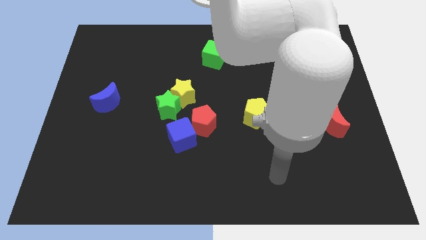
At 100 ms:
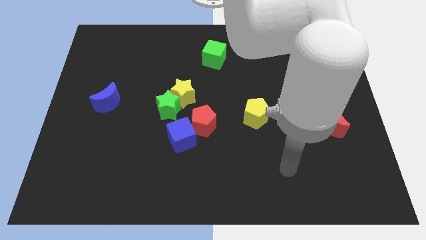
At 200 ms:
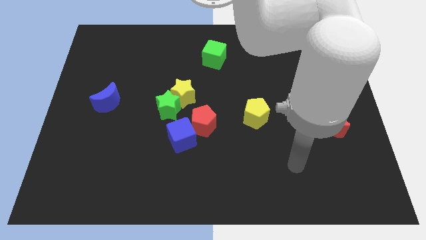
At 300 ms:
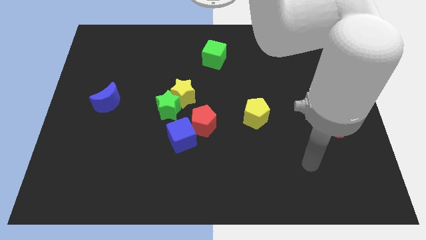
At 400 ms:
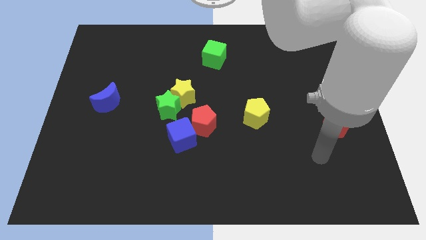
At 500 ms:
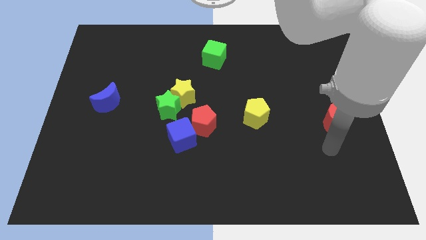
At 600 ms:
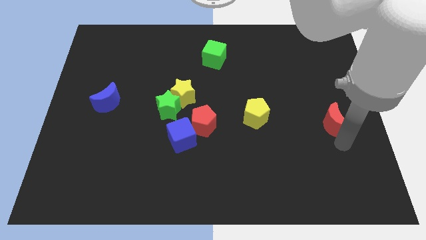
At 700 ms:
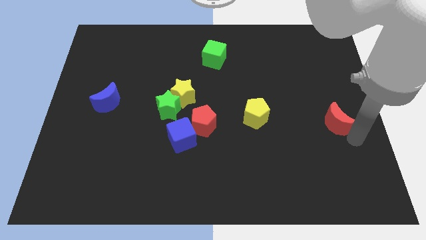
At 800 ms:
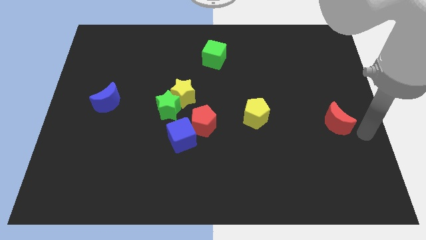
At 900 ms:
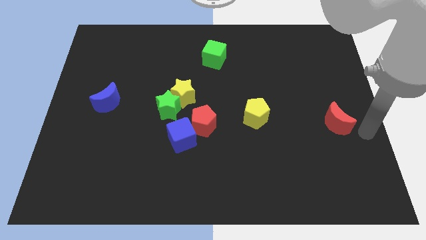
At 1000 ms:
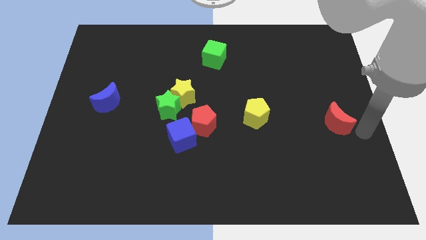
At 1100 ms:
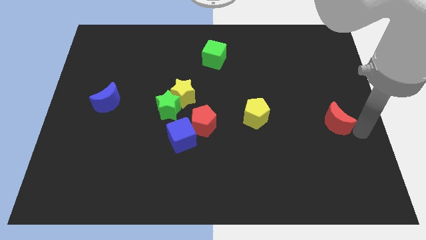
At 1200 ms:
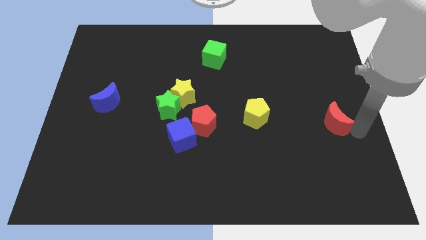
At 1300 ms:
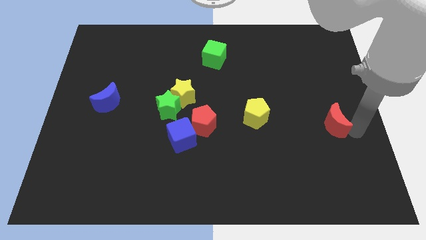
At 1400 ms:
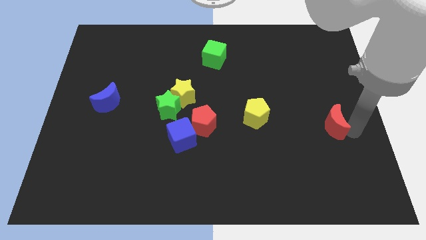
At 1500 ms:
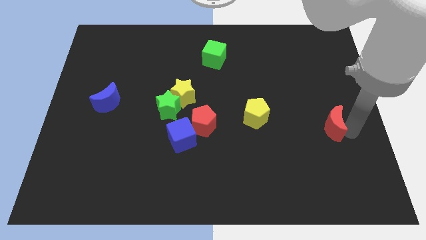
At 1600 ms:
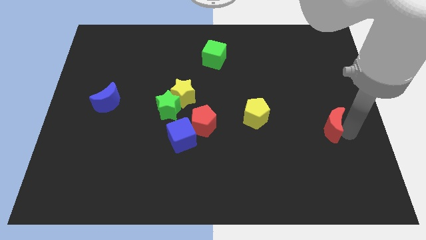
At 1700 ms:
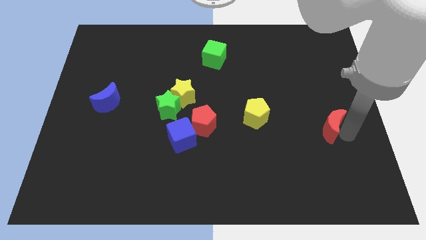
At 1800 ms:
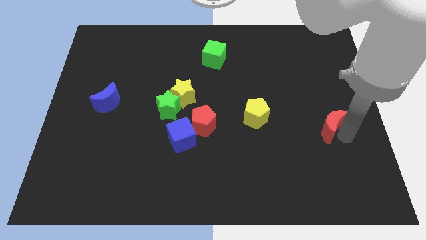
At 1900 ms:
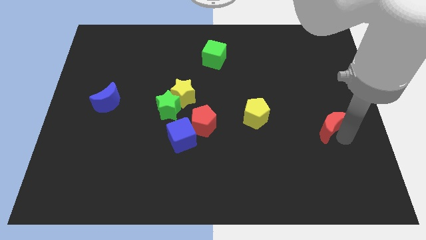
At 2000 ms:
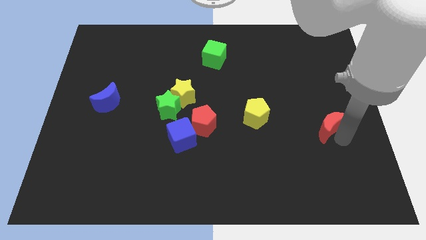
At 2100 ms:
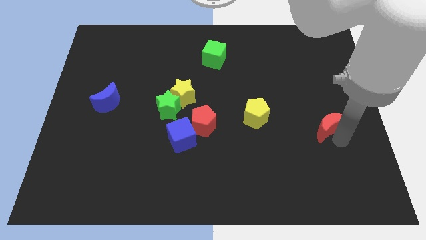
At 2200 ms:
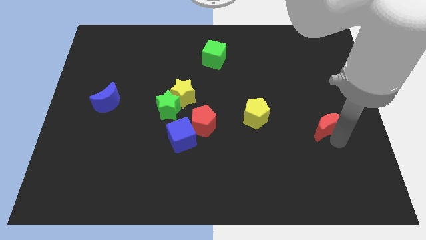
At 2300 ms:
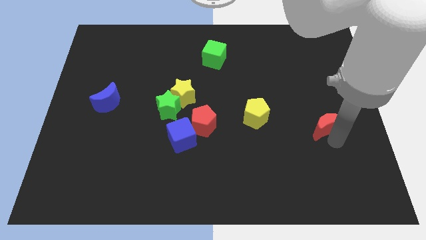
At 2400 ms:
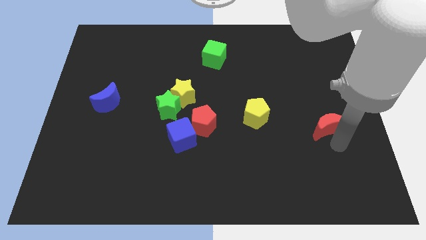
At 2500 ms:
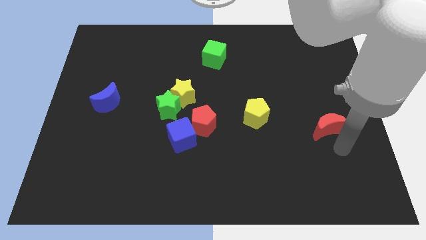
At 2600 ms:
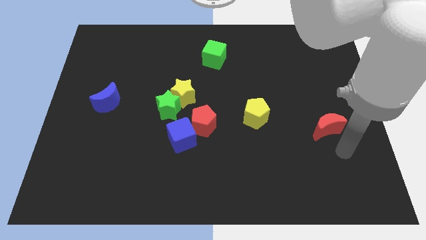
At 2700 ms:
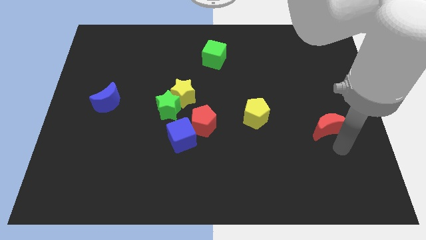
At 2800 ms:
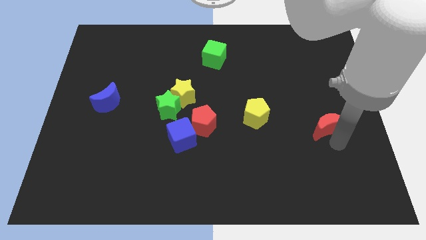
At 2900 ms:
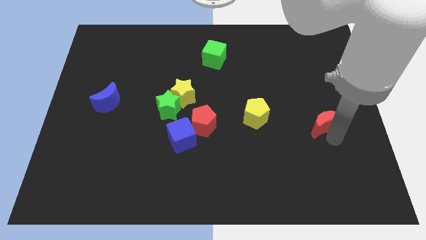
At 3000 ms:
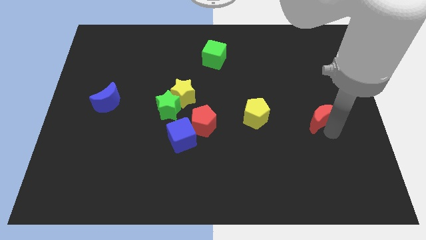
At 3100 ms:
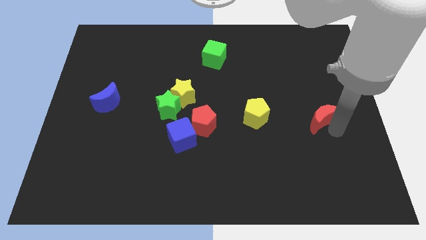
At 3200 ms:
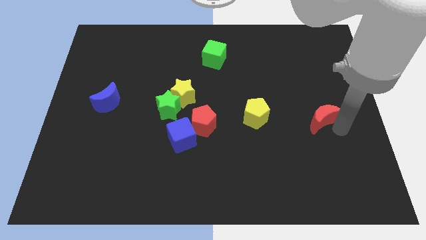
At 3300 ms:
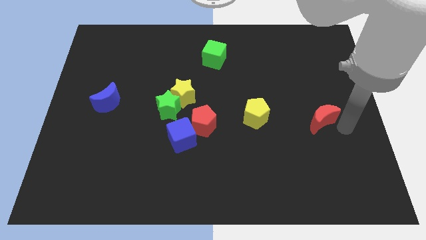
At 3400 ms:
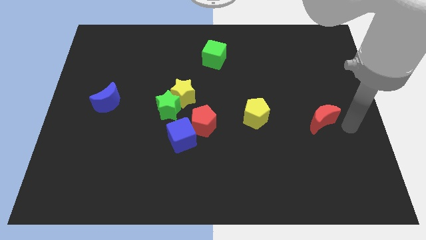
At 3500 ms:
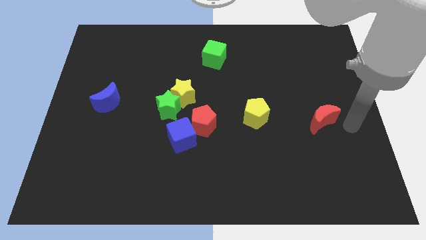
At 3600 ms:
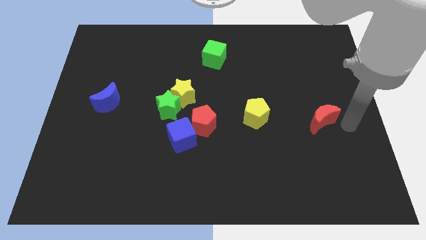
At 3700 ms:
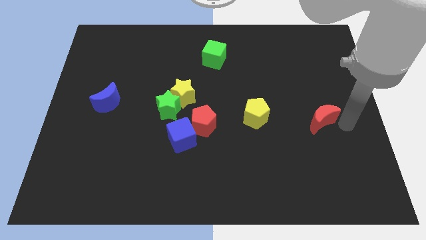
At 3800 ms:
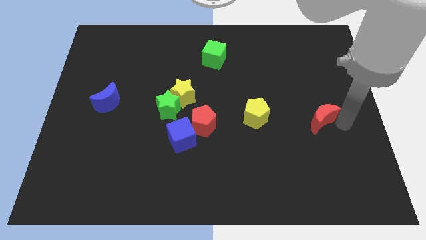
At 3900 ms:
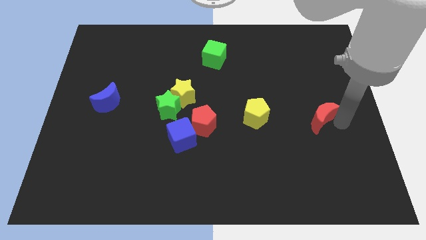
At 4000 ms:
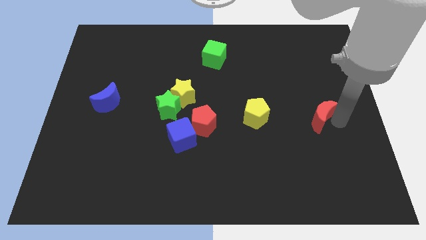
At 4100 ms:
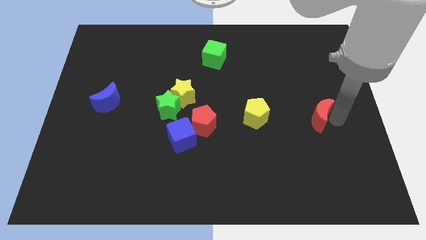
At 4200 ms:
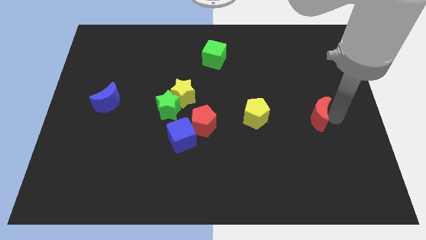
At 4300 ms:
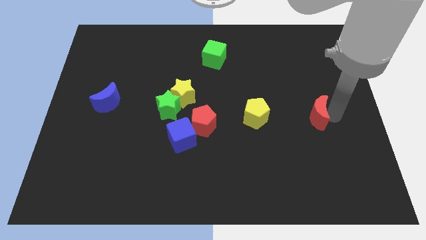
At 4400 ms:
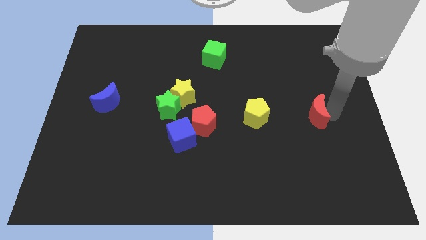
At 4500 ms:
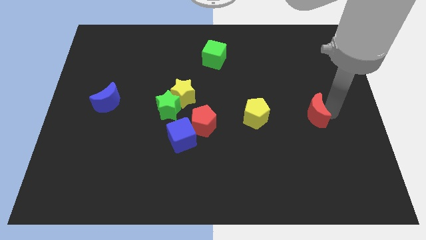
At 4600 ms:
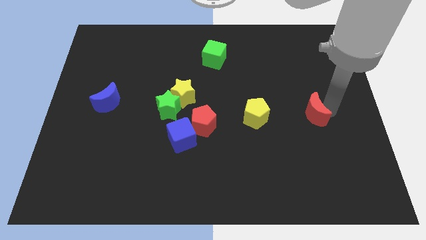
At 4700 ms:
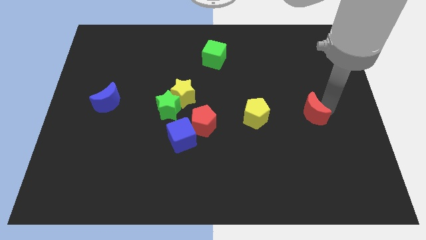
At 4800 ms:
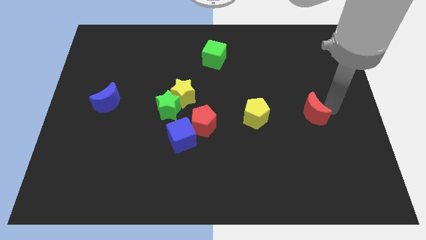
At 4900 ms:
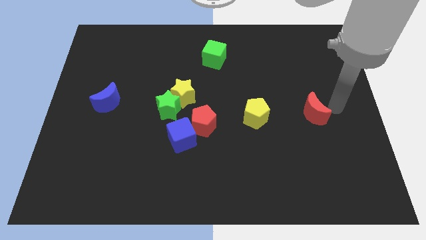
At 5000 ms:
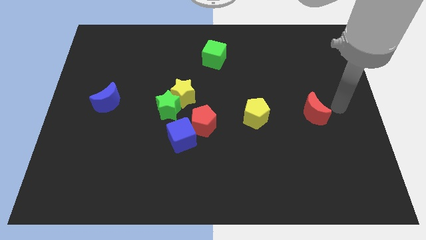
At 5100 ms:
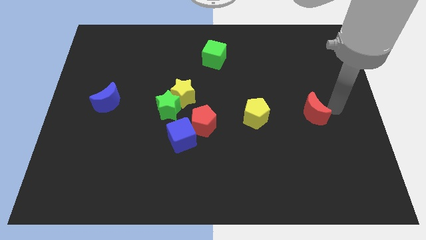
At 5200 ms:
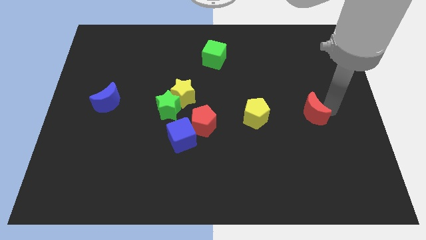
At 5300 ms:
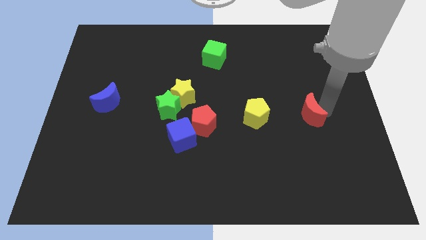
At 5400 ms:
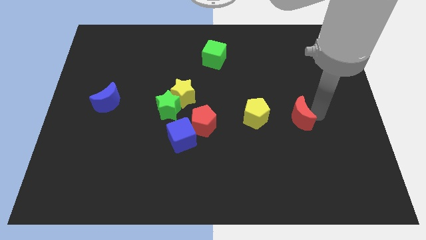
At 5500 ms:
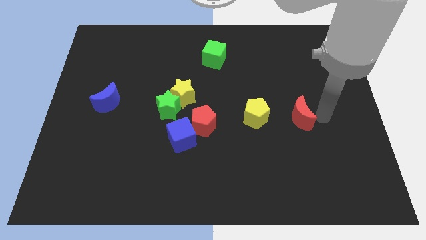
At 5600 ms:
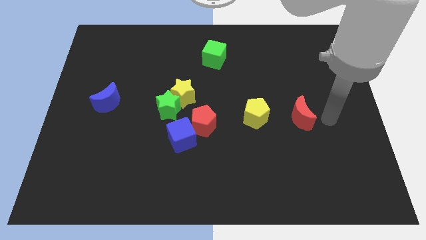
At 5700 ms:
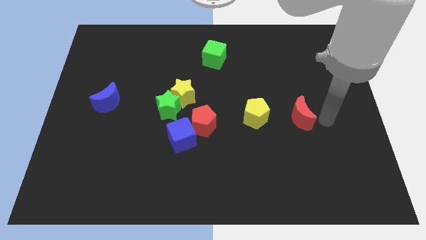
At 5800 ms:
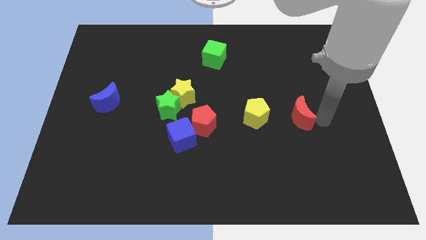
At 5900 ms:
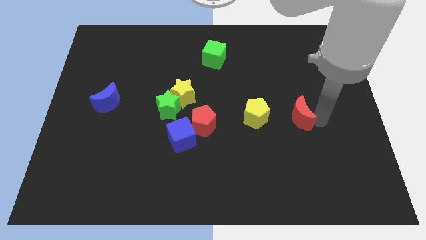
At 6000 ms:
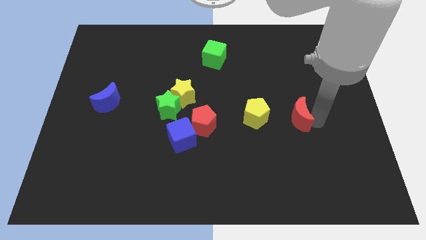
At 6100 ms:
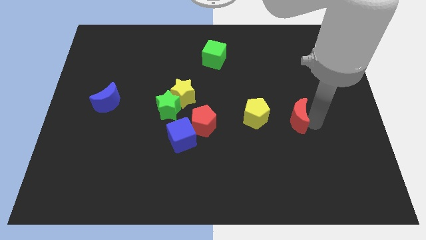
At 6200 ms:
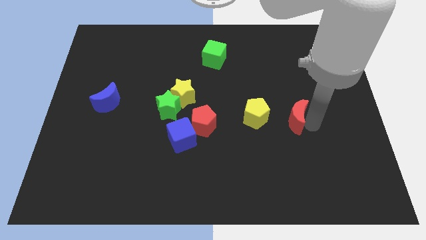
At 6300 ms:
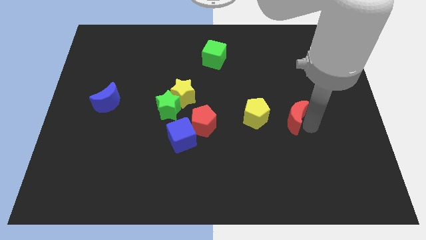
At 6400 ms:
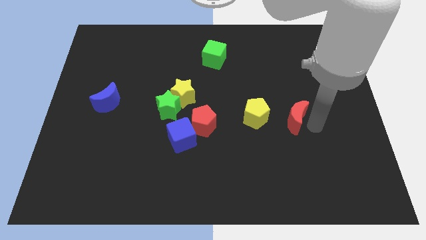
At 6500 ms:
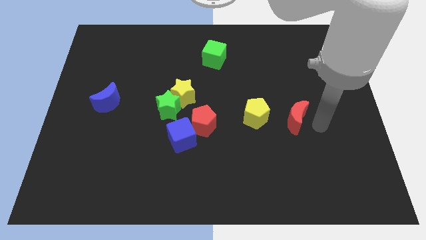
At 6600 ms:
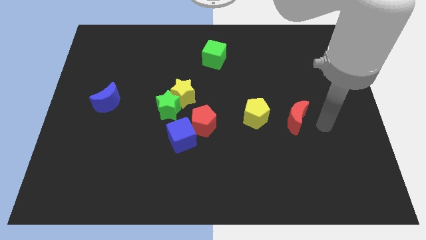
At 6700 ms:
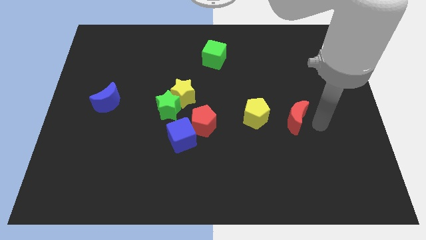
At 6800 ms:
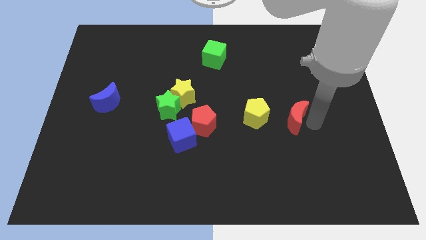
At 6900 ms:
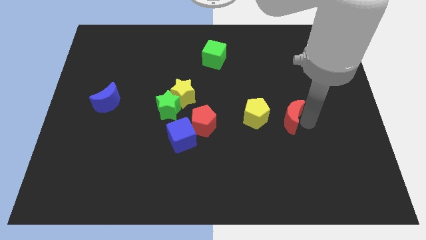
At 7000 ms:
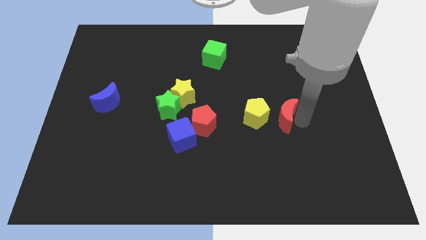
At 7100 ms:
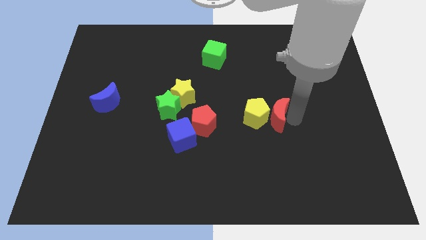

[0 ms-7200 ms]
move the red moon towards the yellow pentagon

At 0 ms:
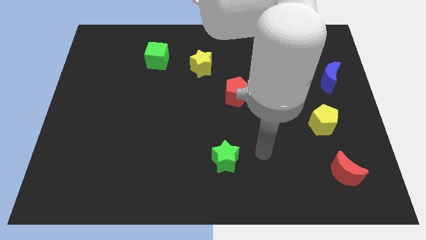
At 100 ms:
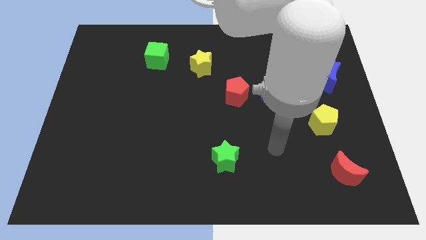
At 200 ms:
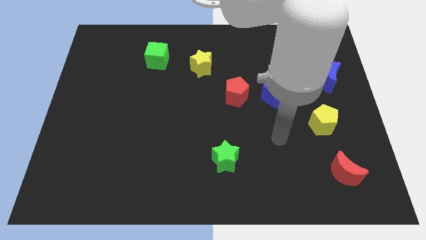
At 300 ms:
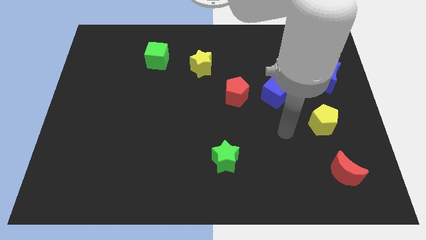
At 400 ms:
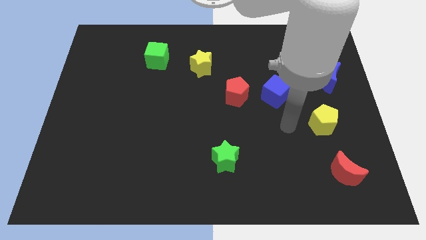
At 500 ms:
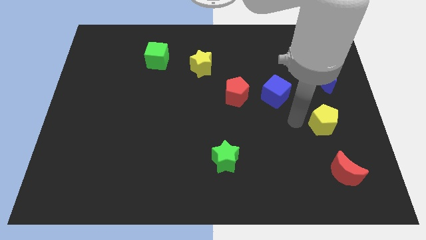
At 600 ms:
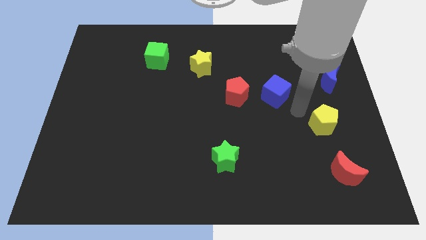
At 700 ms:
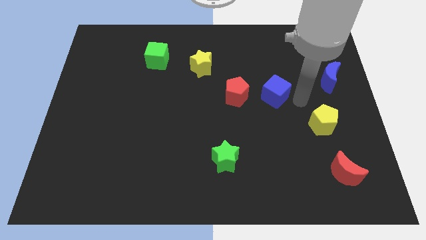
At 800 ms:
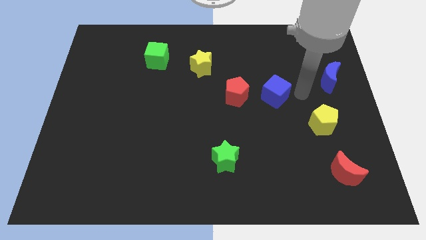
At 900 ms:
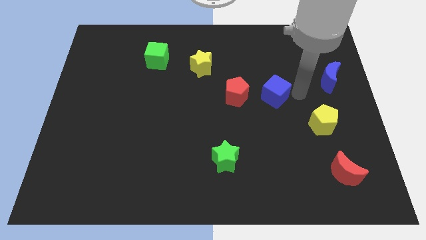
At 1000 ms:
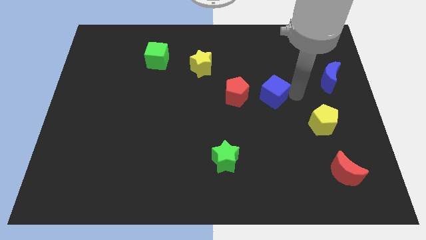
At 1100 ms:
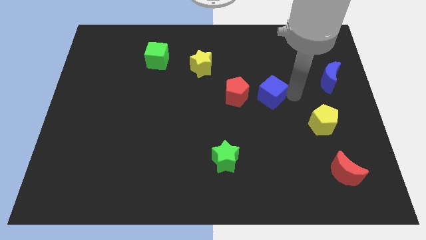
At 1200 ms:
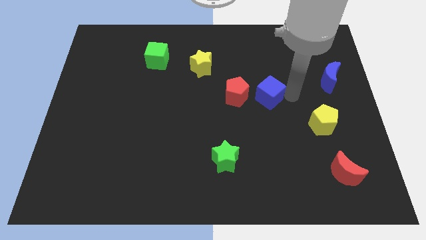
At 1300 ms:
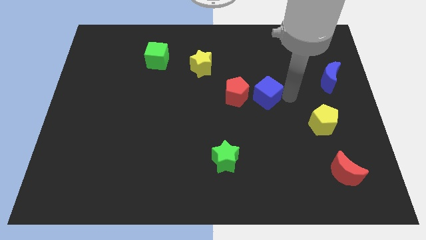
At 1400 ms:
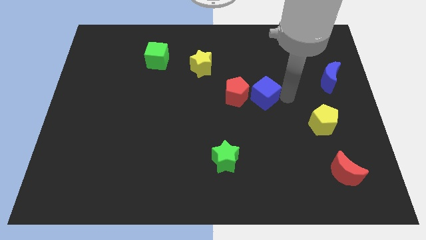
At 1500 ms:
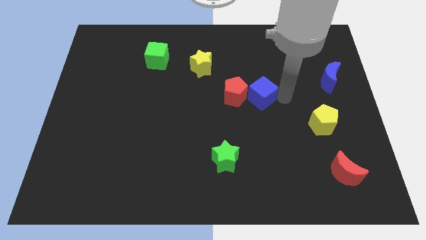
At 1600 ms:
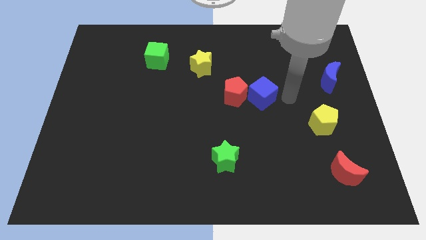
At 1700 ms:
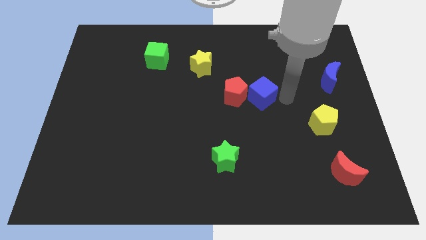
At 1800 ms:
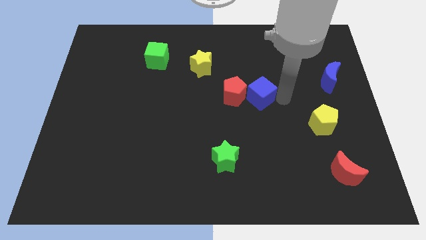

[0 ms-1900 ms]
slide the blue cube towards the red pentagon
